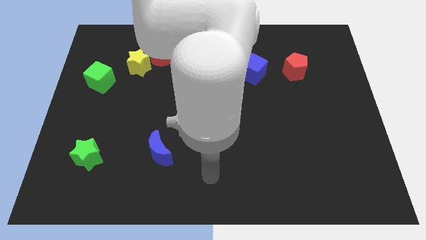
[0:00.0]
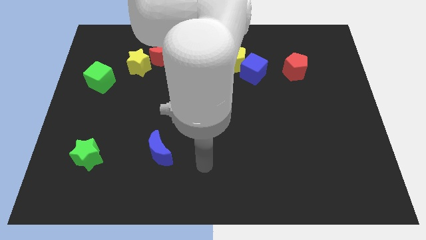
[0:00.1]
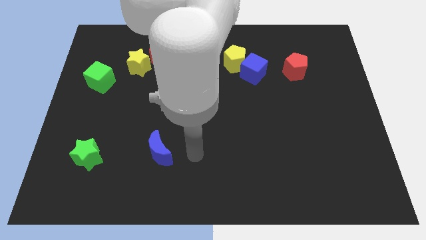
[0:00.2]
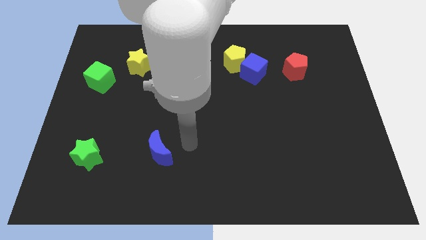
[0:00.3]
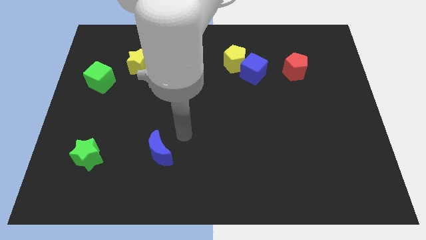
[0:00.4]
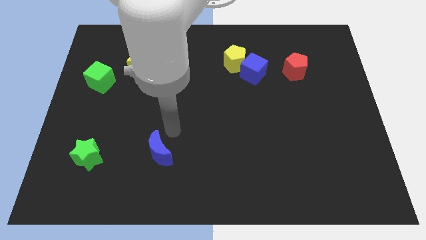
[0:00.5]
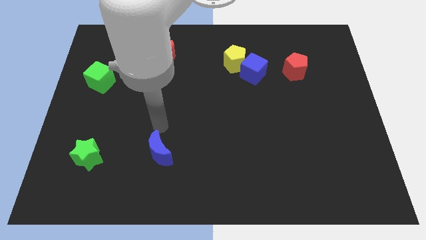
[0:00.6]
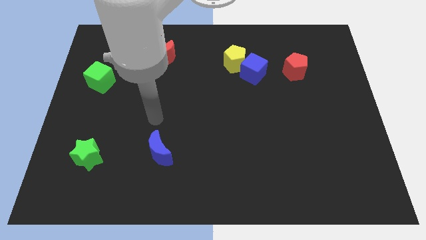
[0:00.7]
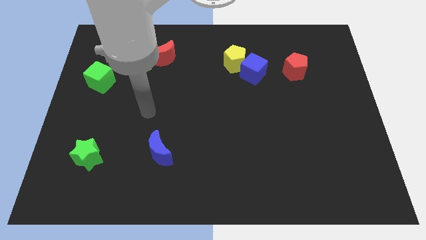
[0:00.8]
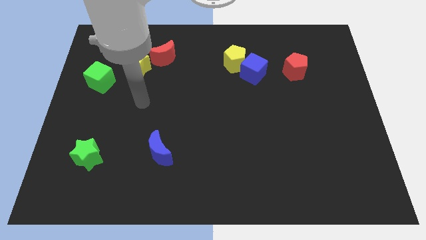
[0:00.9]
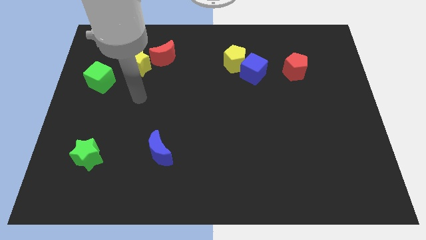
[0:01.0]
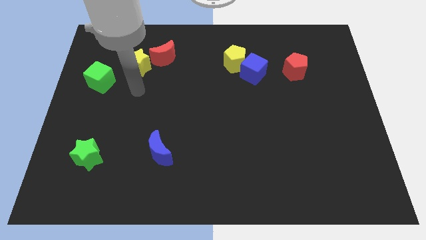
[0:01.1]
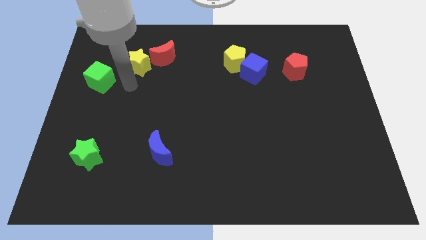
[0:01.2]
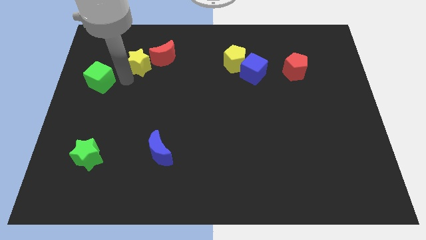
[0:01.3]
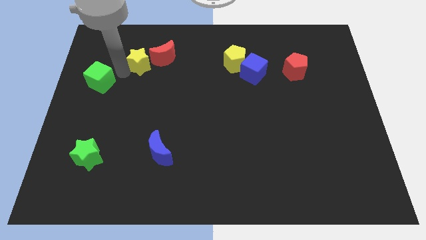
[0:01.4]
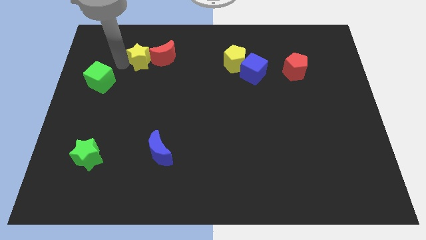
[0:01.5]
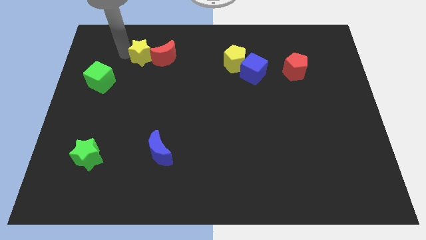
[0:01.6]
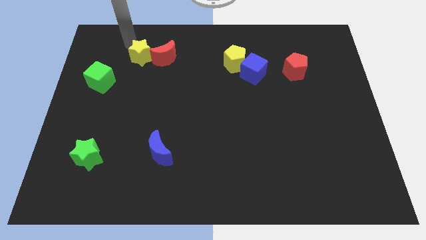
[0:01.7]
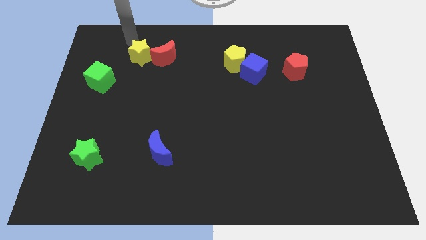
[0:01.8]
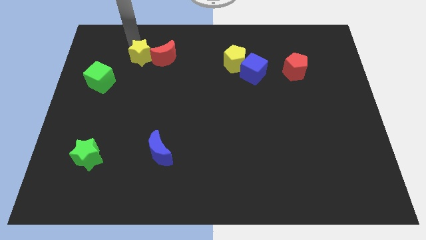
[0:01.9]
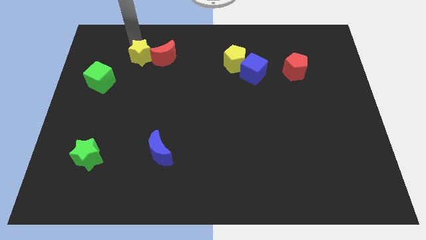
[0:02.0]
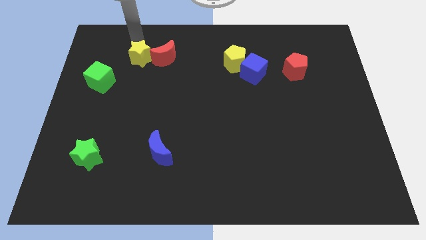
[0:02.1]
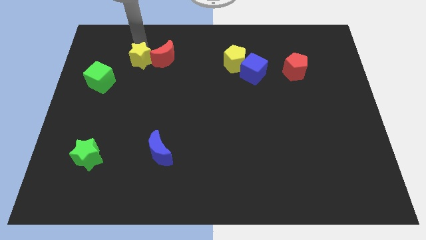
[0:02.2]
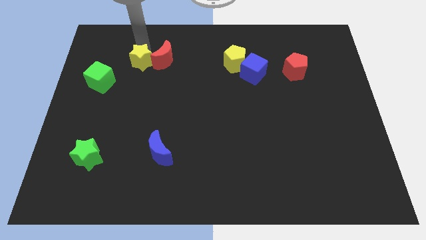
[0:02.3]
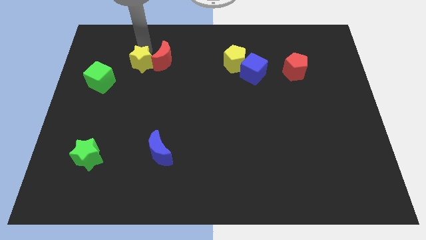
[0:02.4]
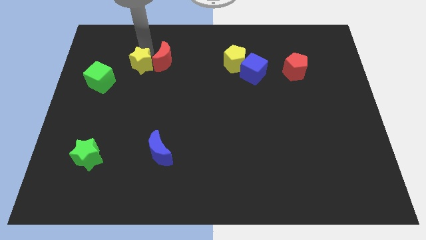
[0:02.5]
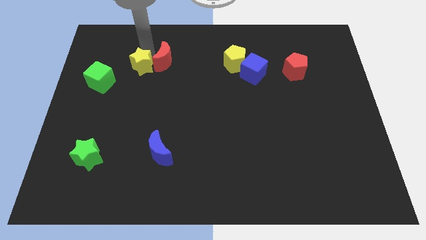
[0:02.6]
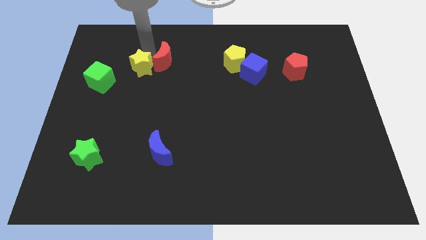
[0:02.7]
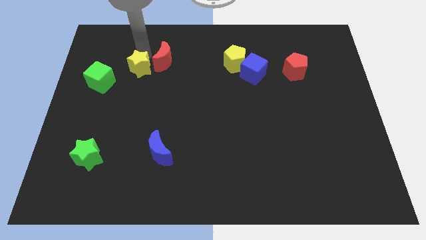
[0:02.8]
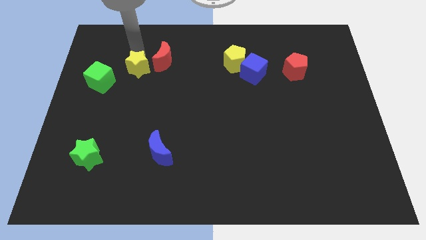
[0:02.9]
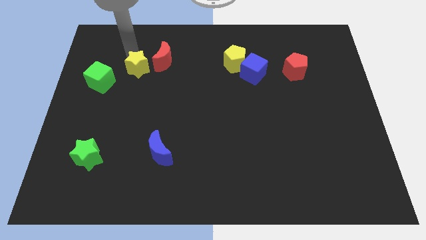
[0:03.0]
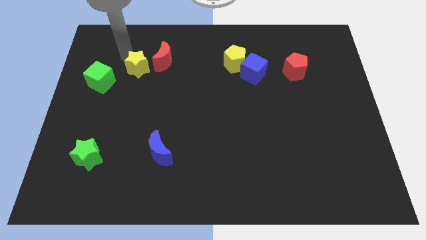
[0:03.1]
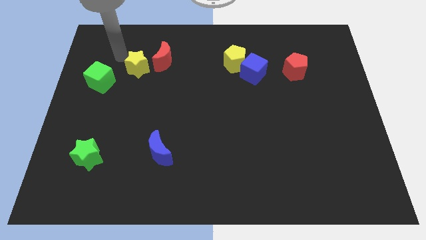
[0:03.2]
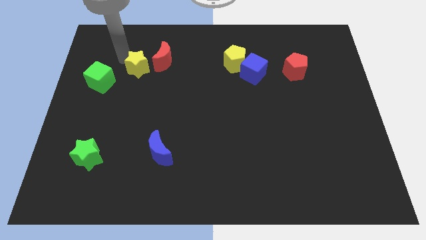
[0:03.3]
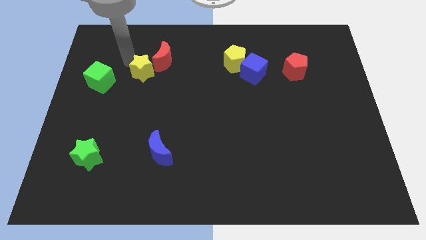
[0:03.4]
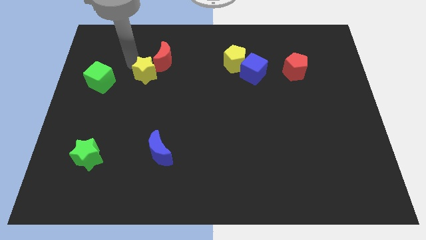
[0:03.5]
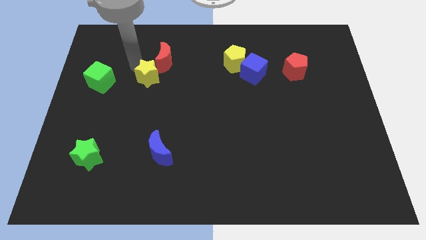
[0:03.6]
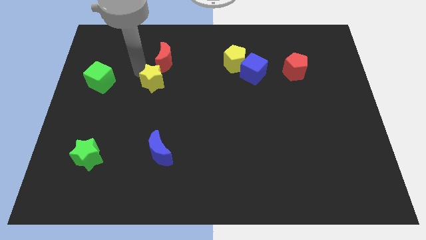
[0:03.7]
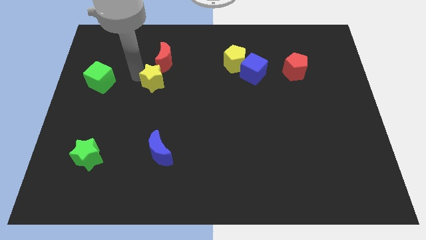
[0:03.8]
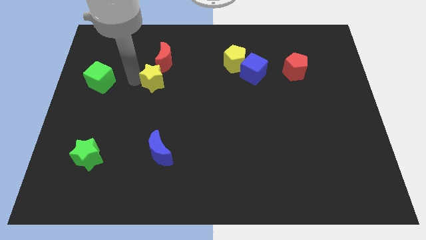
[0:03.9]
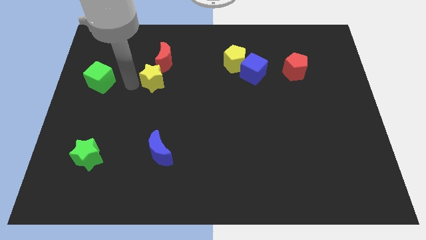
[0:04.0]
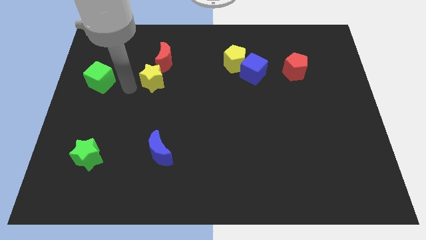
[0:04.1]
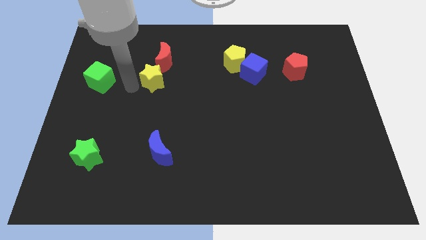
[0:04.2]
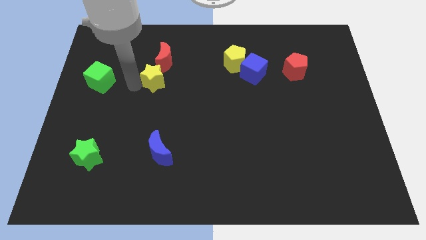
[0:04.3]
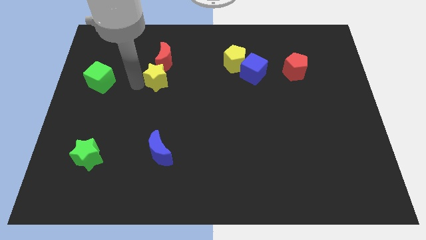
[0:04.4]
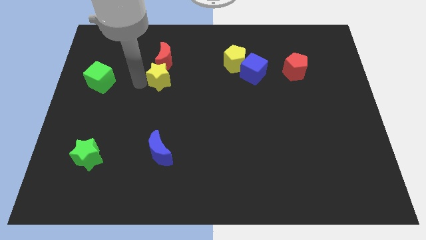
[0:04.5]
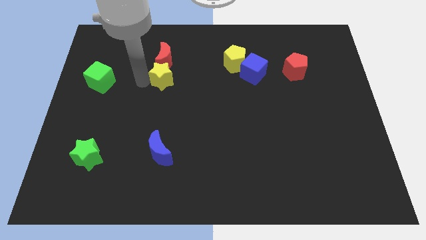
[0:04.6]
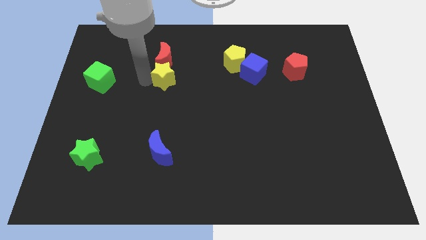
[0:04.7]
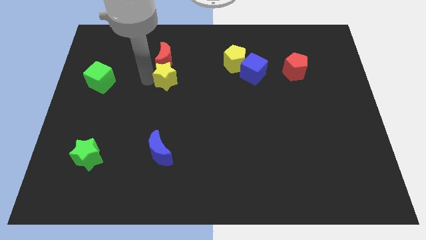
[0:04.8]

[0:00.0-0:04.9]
move the yellow star to the right somewhat

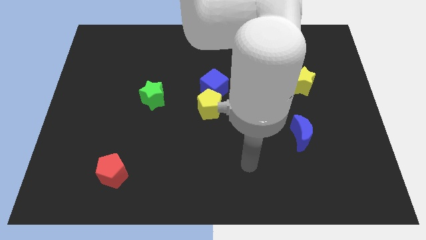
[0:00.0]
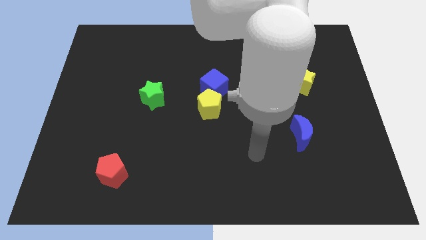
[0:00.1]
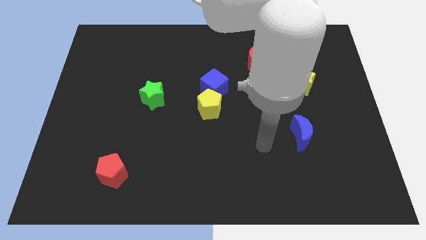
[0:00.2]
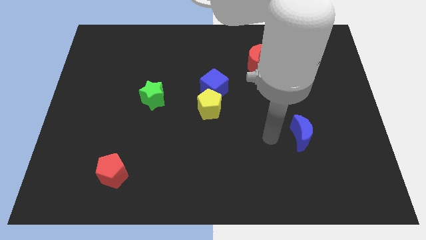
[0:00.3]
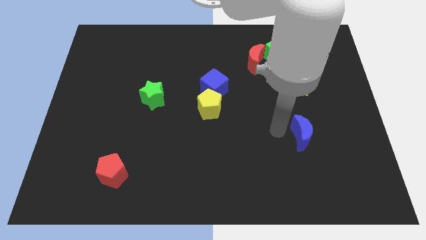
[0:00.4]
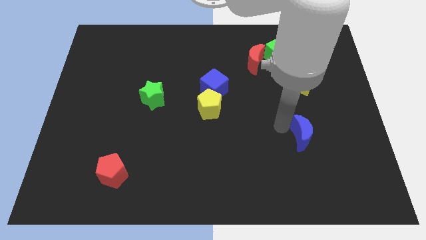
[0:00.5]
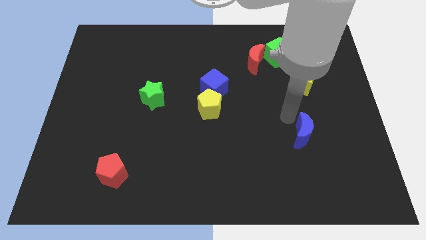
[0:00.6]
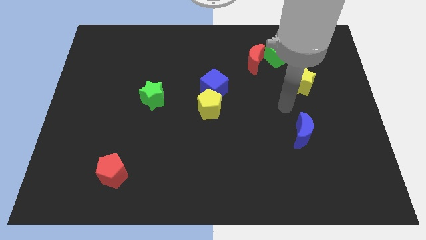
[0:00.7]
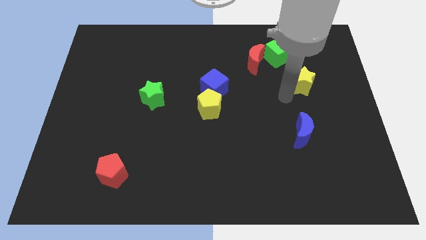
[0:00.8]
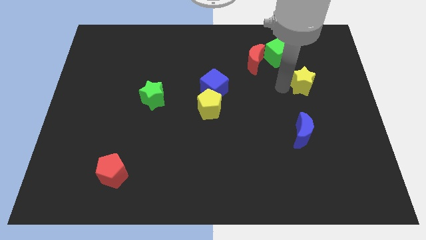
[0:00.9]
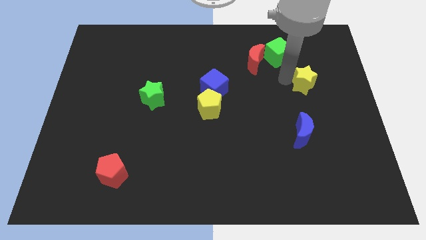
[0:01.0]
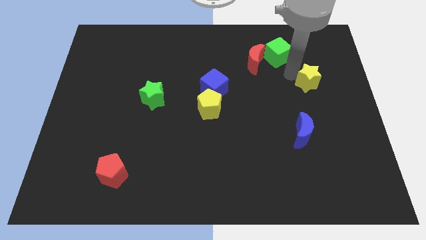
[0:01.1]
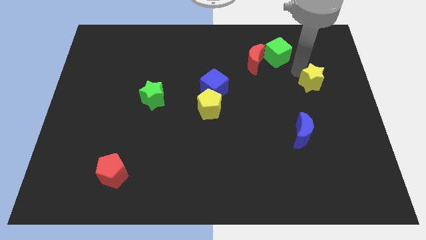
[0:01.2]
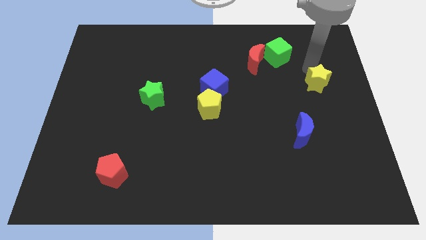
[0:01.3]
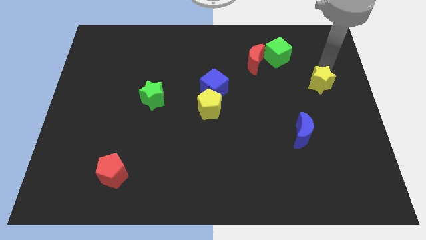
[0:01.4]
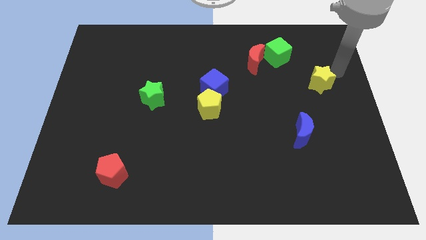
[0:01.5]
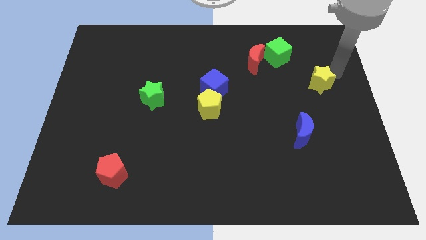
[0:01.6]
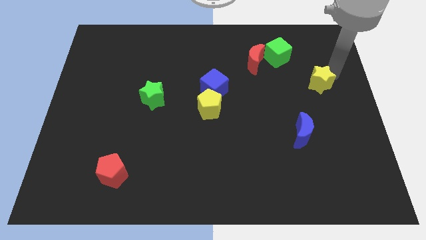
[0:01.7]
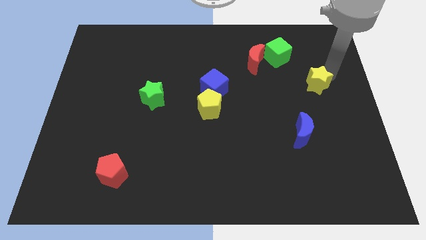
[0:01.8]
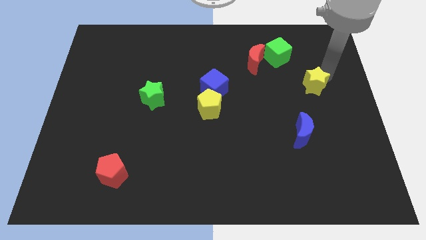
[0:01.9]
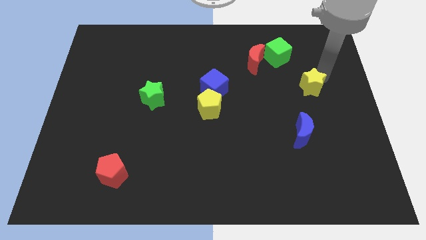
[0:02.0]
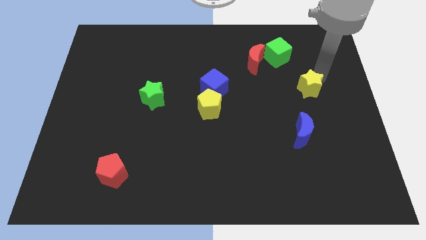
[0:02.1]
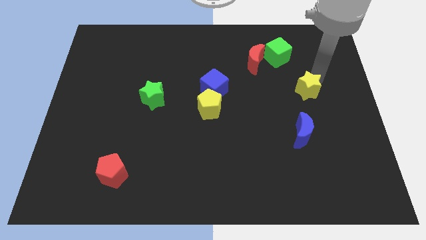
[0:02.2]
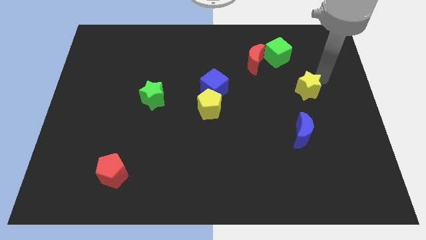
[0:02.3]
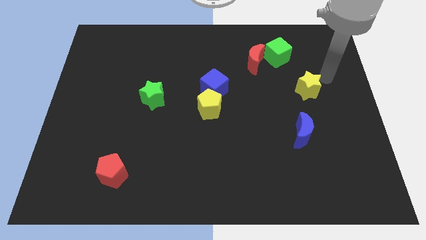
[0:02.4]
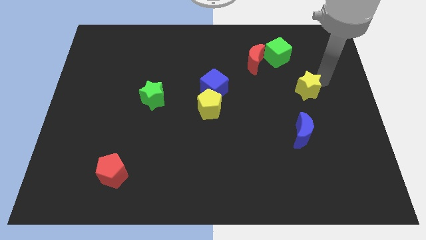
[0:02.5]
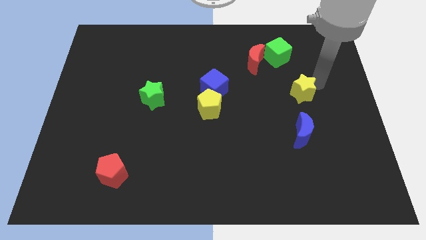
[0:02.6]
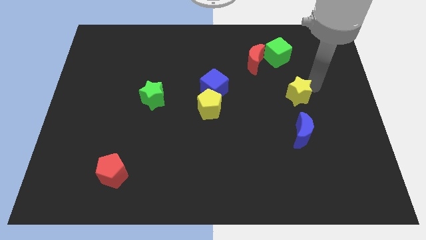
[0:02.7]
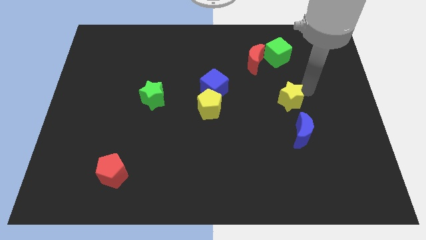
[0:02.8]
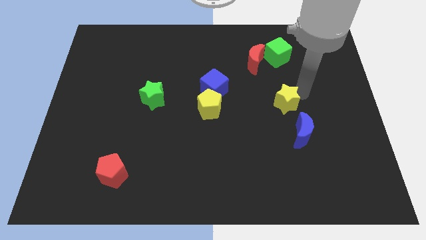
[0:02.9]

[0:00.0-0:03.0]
push the yellow star down and to the left diagonally somewhat

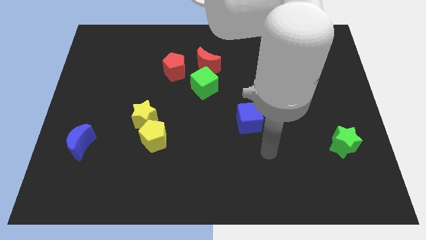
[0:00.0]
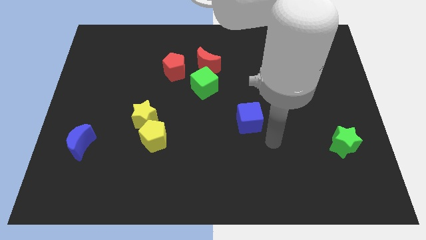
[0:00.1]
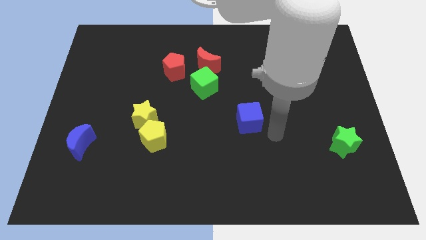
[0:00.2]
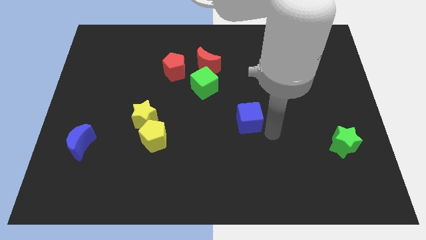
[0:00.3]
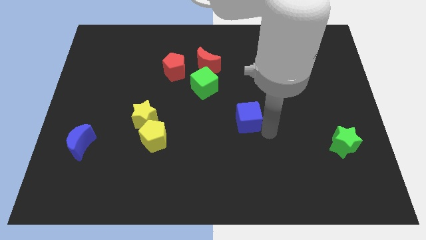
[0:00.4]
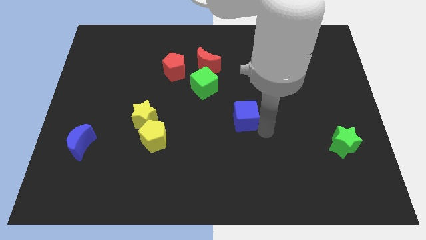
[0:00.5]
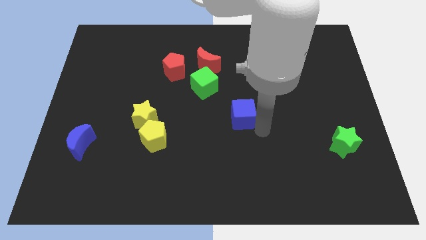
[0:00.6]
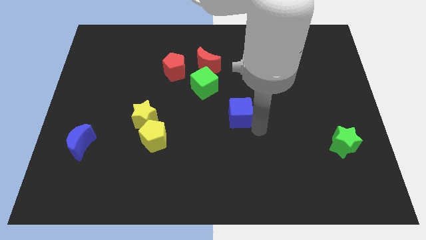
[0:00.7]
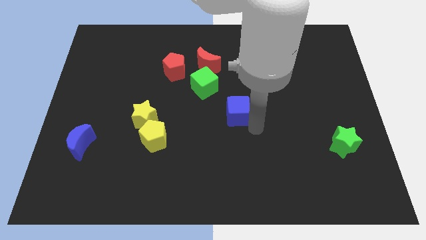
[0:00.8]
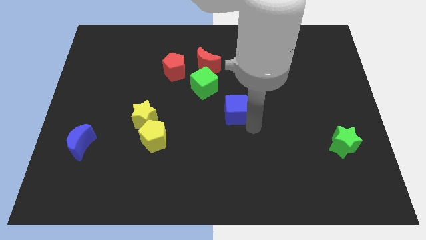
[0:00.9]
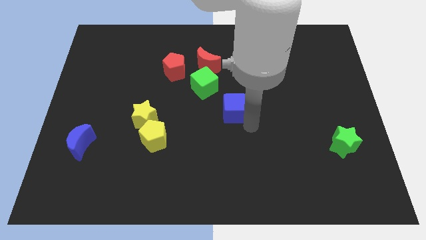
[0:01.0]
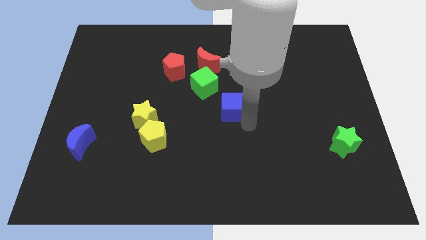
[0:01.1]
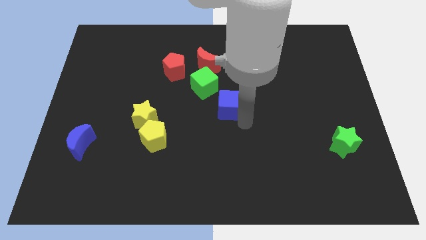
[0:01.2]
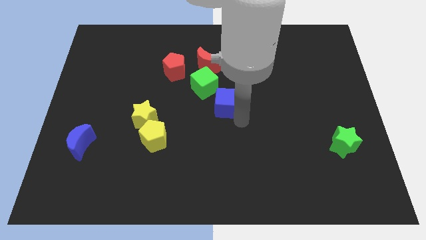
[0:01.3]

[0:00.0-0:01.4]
slightly slide the blue cube up and then left
